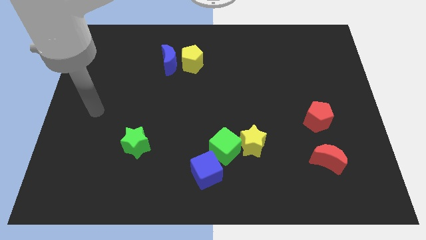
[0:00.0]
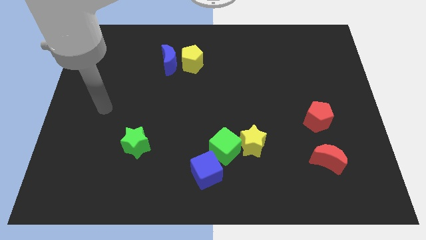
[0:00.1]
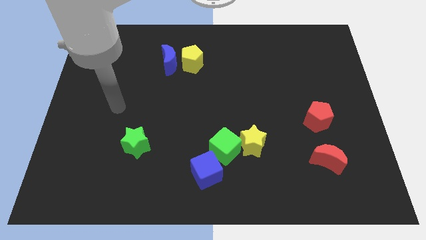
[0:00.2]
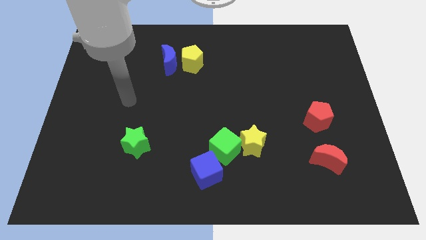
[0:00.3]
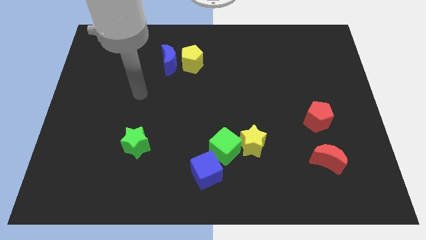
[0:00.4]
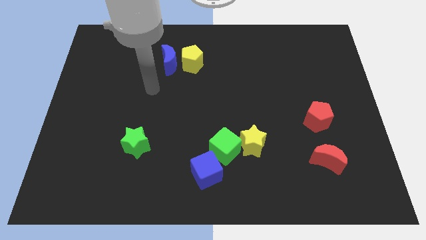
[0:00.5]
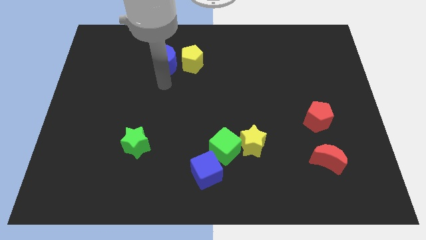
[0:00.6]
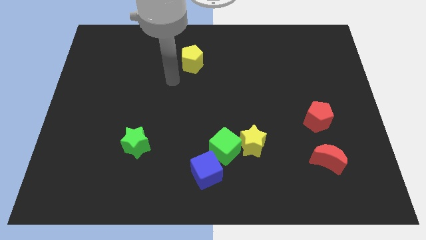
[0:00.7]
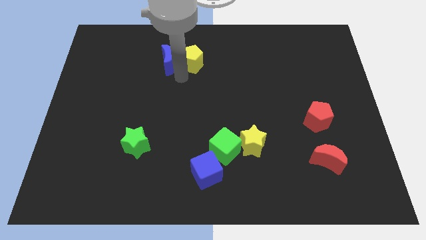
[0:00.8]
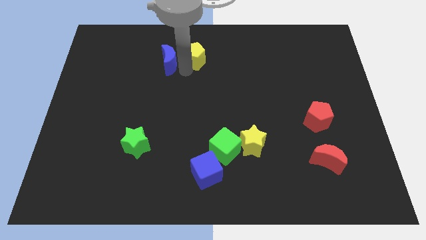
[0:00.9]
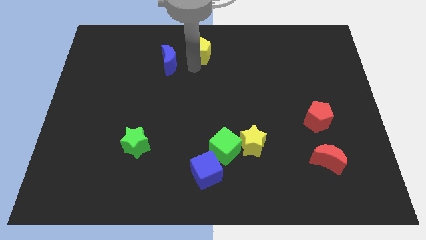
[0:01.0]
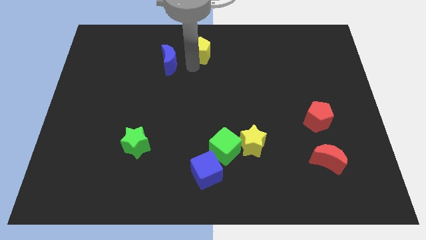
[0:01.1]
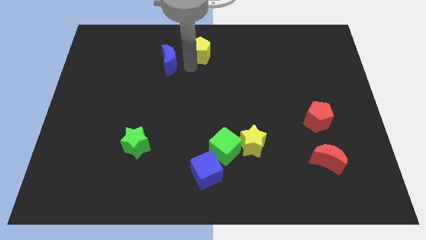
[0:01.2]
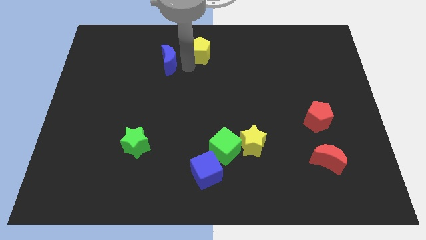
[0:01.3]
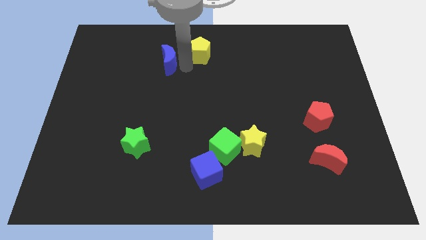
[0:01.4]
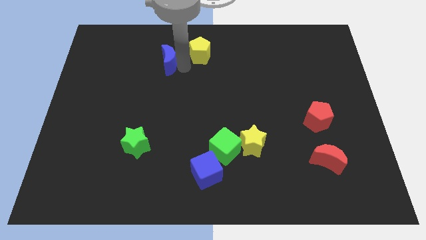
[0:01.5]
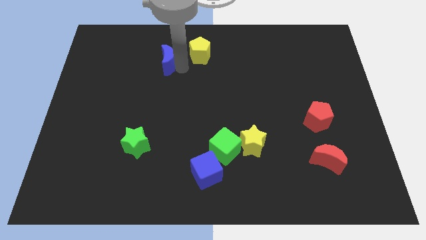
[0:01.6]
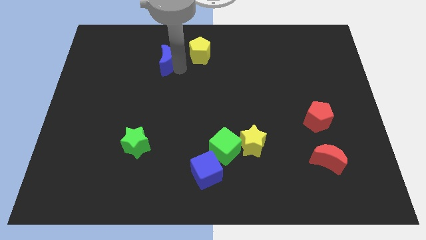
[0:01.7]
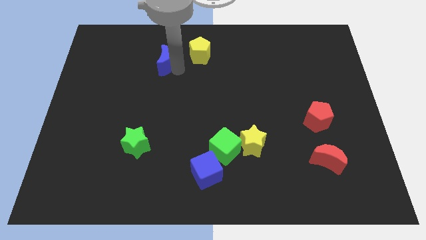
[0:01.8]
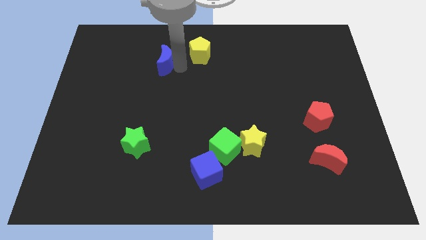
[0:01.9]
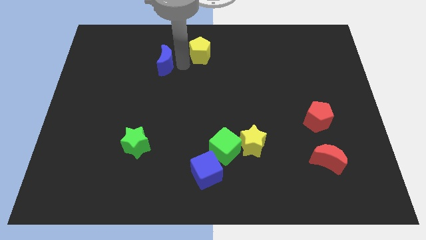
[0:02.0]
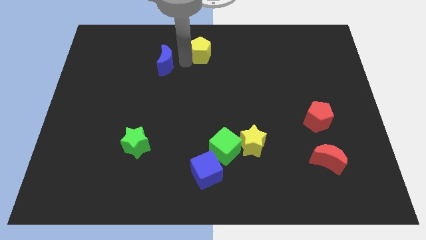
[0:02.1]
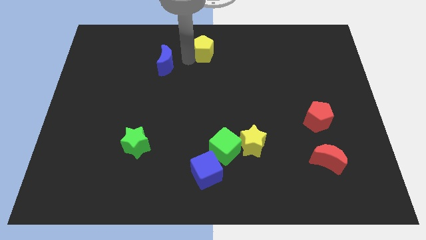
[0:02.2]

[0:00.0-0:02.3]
move the blue moon away from the yellow pentagon

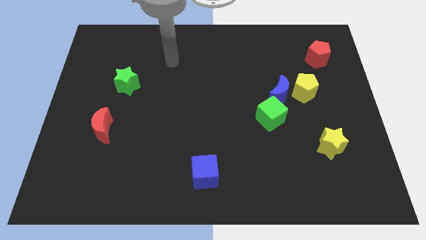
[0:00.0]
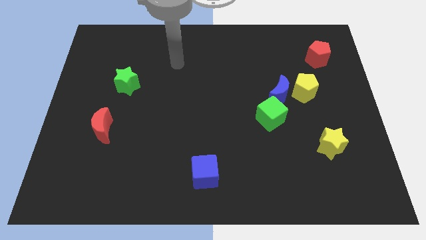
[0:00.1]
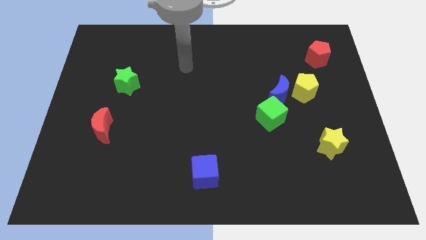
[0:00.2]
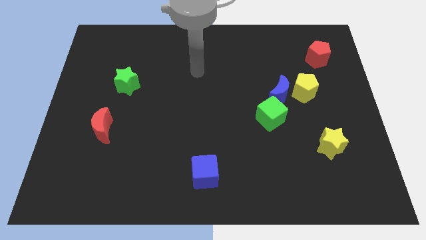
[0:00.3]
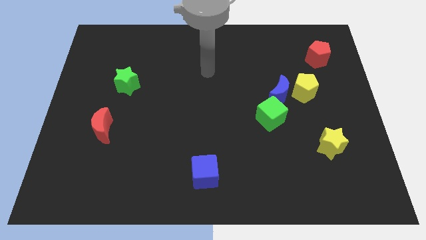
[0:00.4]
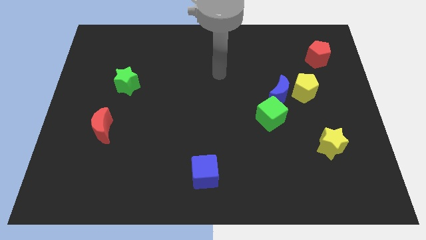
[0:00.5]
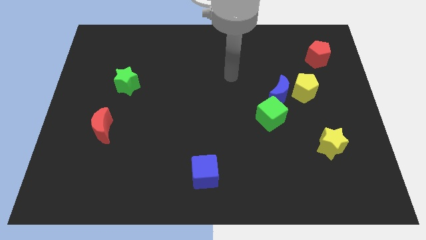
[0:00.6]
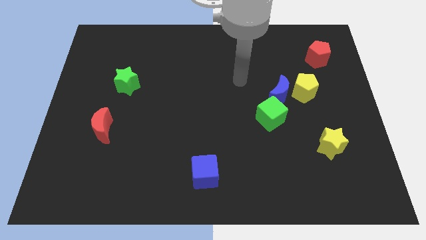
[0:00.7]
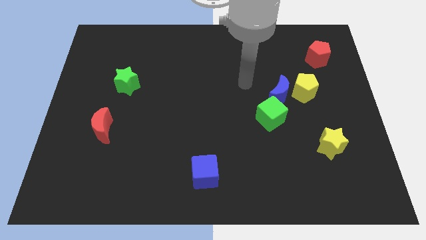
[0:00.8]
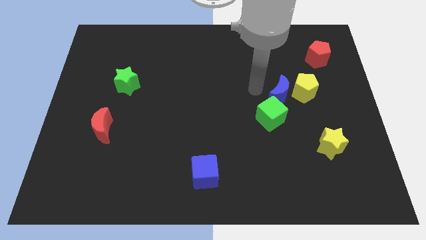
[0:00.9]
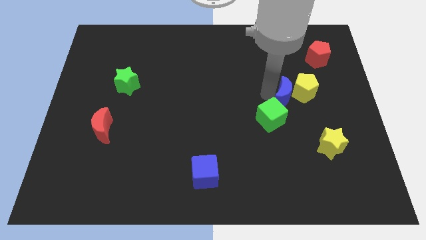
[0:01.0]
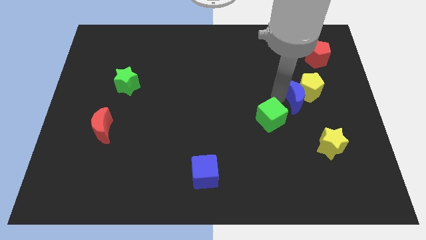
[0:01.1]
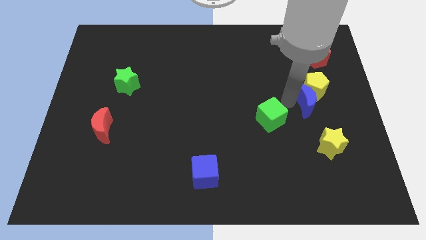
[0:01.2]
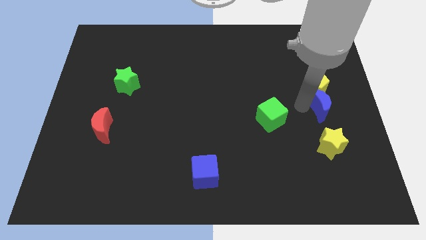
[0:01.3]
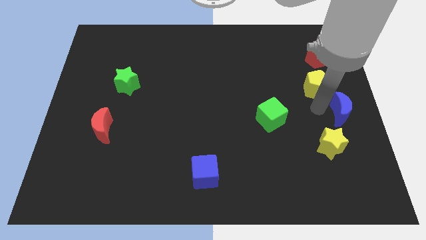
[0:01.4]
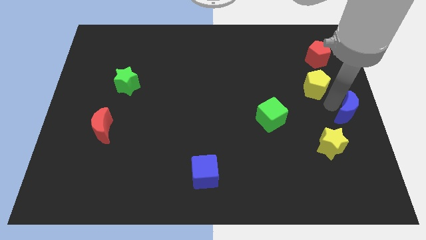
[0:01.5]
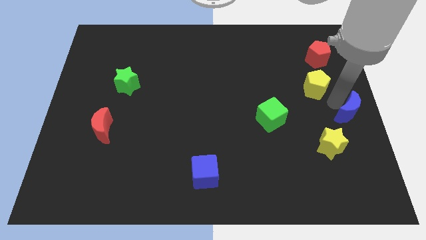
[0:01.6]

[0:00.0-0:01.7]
move the yellow pentagon away from the blue moon

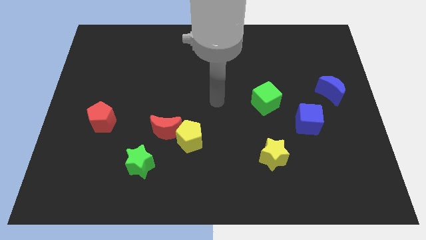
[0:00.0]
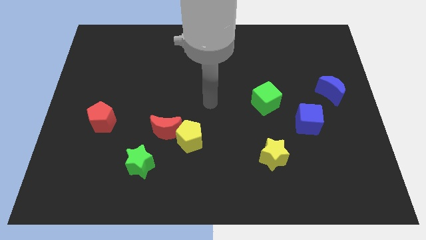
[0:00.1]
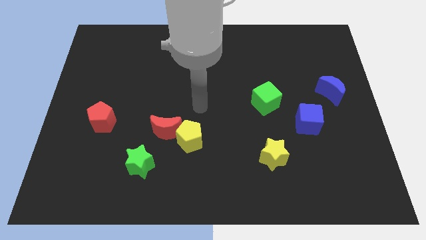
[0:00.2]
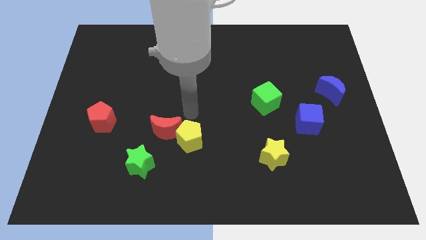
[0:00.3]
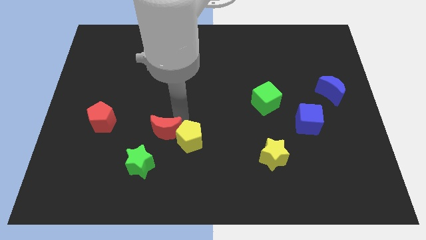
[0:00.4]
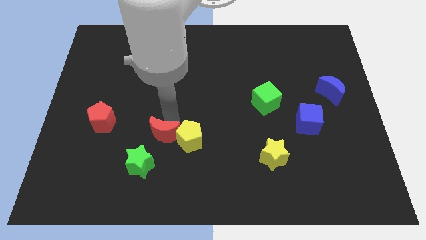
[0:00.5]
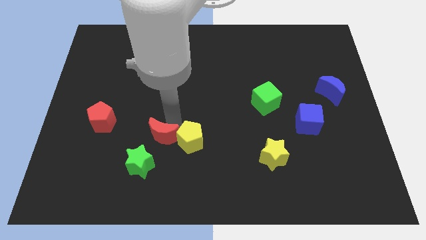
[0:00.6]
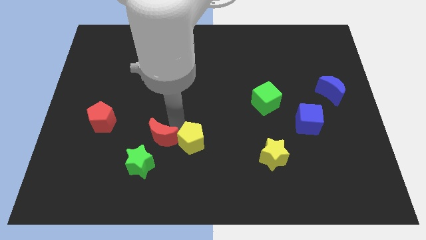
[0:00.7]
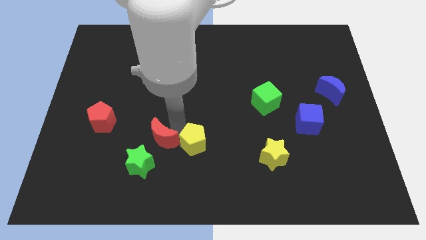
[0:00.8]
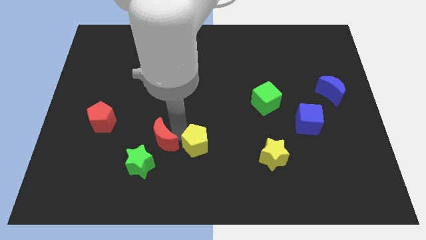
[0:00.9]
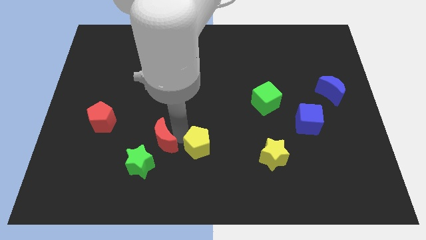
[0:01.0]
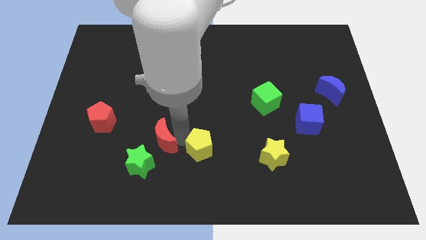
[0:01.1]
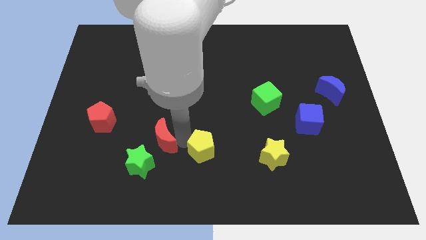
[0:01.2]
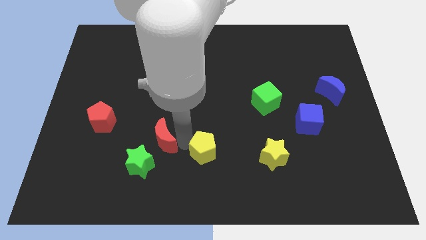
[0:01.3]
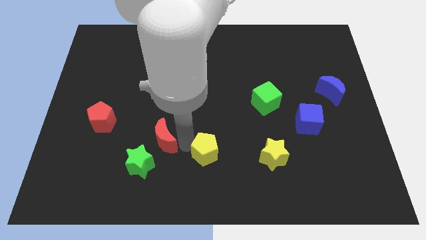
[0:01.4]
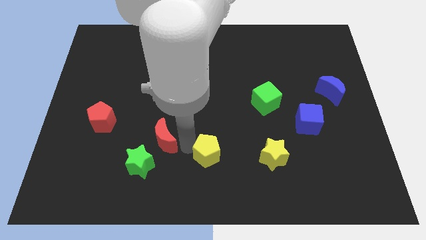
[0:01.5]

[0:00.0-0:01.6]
pull the yellow pentagon apart from the red moon

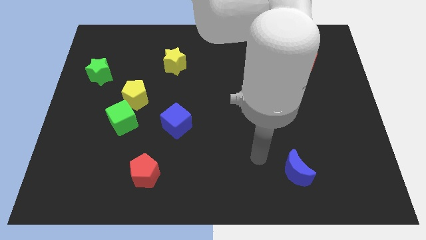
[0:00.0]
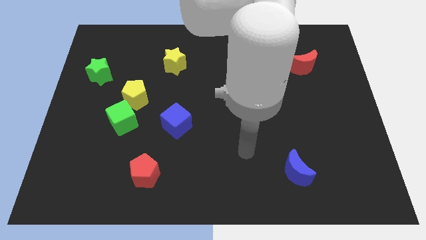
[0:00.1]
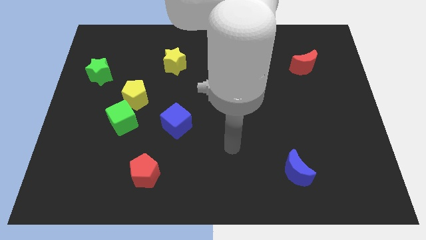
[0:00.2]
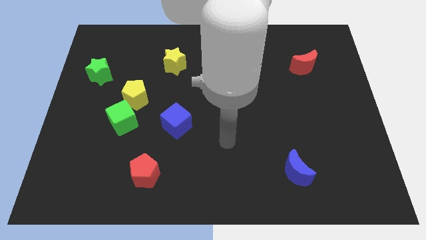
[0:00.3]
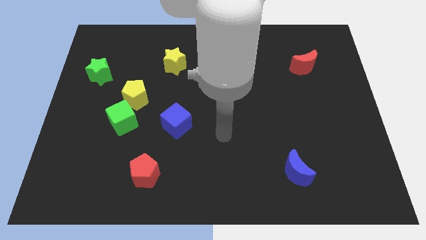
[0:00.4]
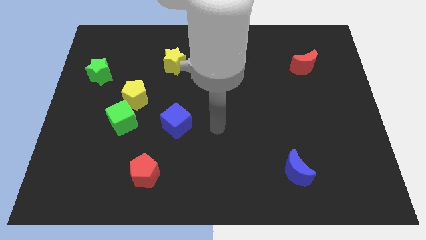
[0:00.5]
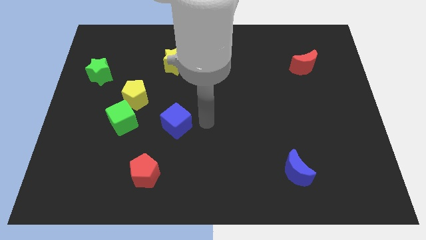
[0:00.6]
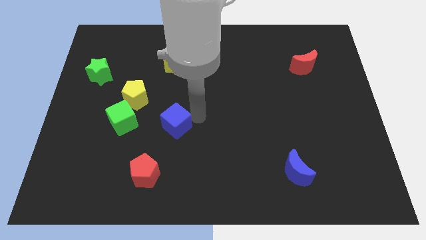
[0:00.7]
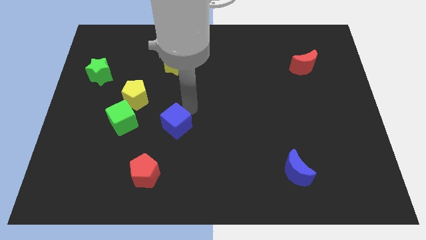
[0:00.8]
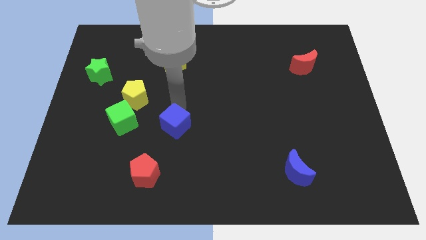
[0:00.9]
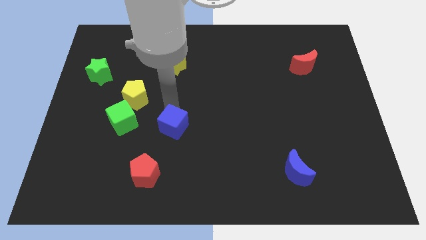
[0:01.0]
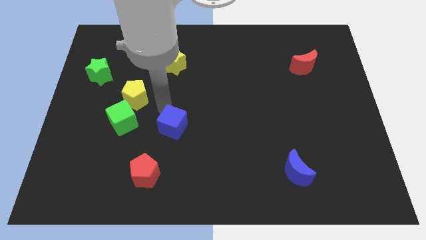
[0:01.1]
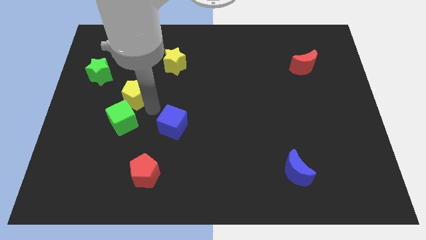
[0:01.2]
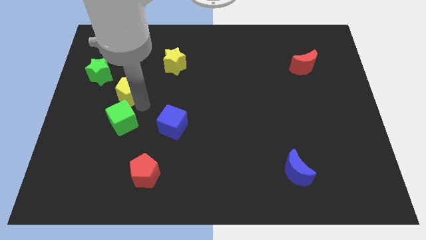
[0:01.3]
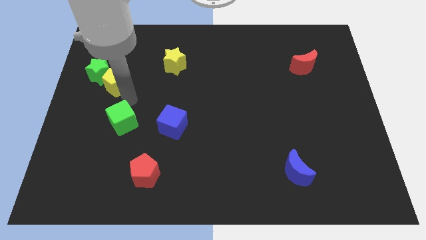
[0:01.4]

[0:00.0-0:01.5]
separate the green cube from the yellow pentagon

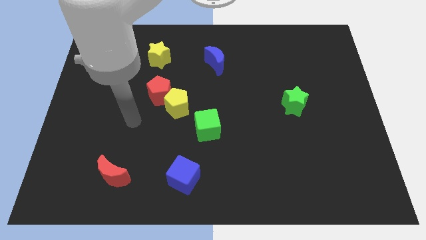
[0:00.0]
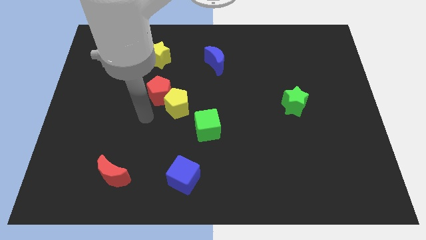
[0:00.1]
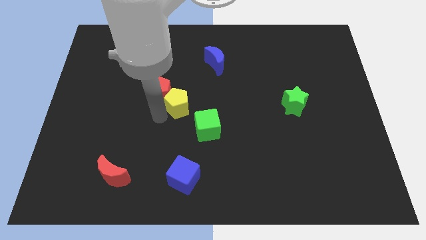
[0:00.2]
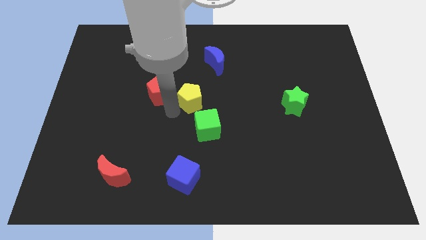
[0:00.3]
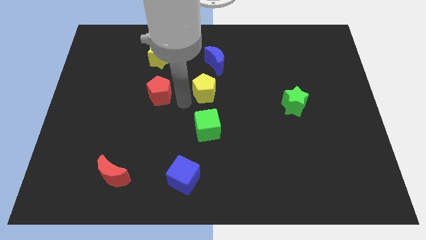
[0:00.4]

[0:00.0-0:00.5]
move the red pentagon away from the yellow pentagon

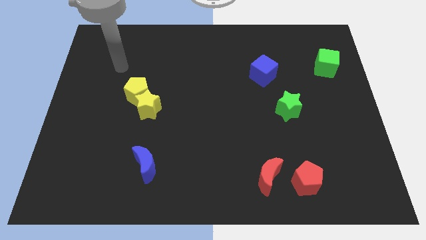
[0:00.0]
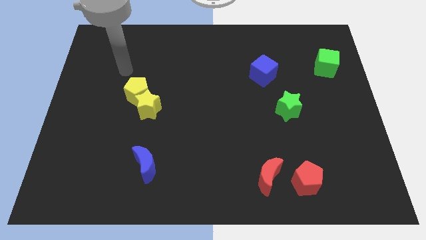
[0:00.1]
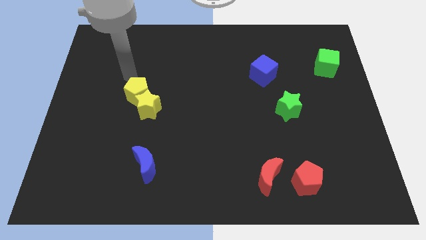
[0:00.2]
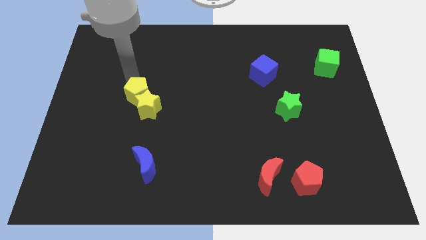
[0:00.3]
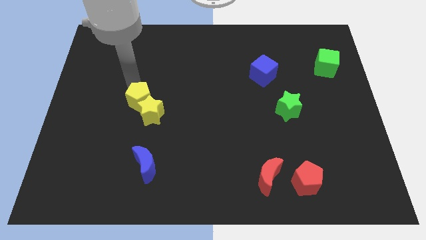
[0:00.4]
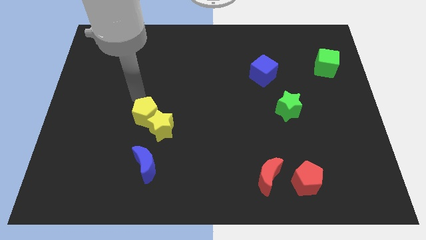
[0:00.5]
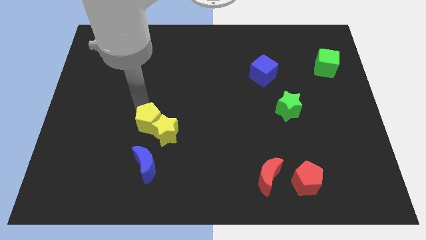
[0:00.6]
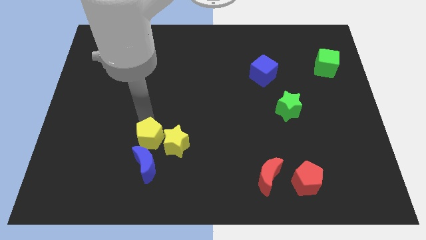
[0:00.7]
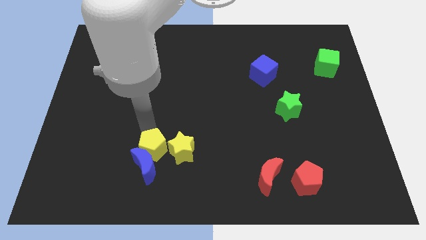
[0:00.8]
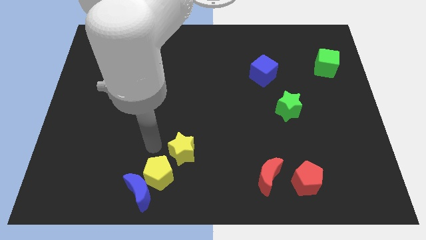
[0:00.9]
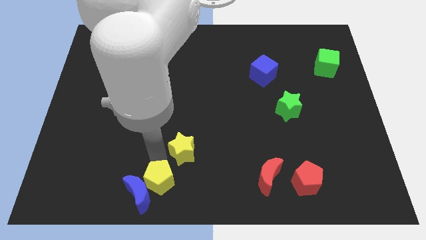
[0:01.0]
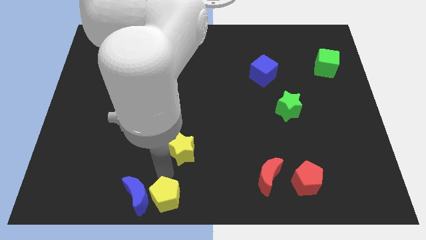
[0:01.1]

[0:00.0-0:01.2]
pull the yellow star apart from the yellow pentagon

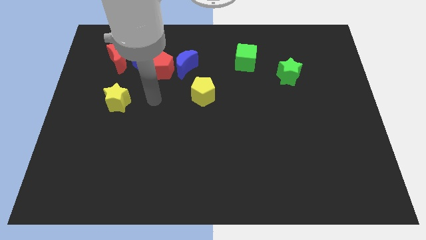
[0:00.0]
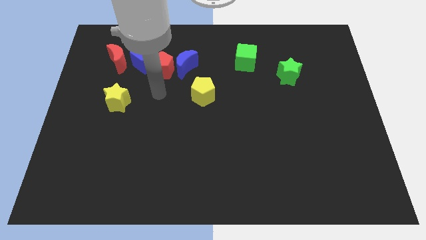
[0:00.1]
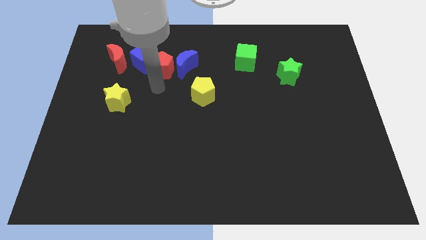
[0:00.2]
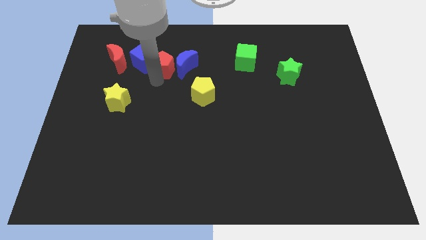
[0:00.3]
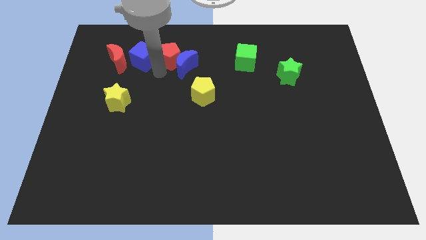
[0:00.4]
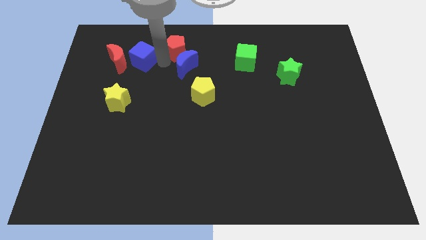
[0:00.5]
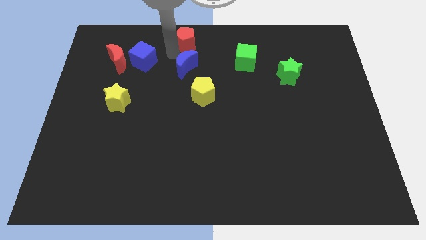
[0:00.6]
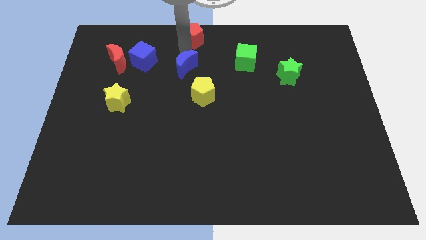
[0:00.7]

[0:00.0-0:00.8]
pull the blue moon apart from the red pentagon
